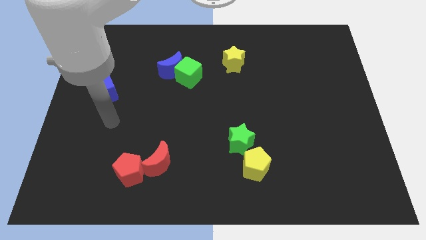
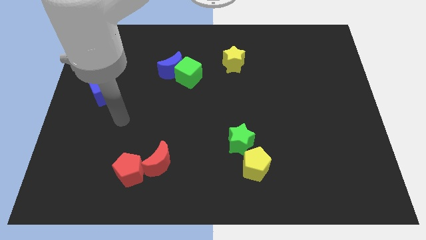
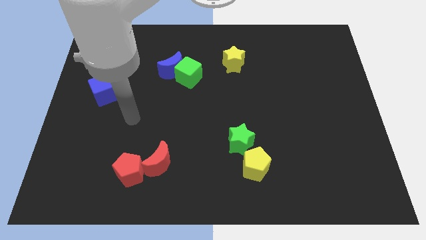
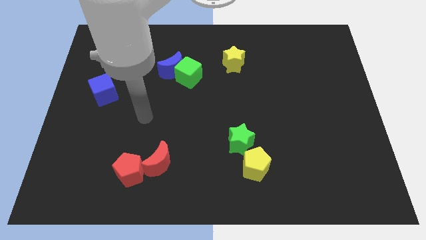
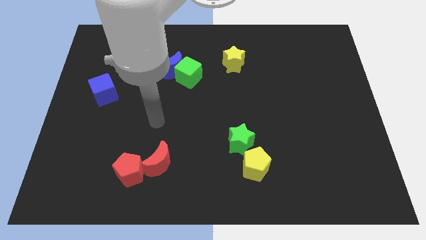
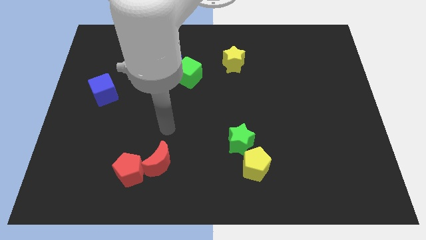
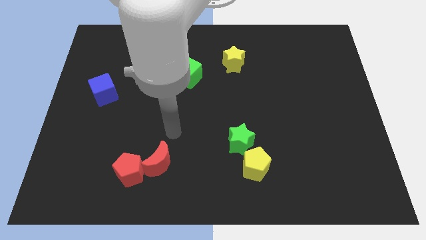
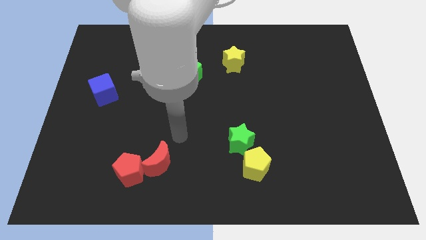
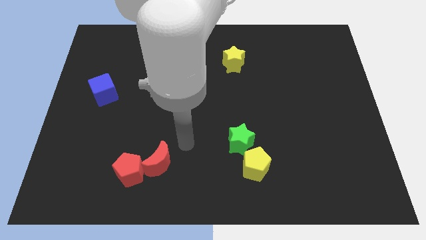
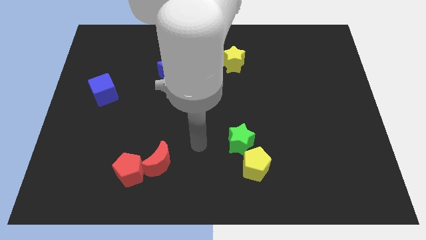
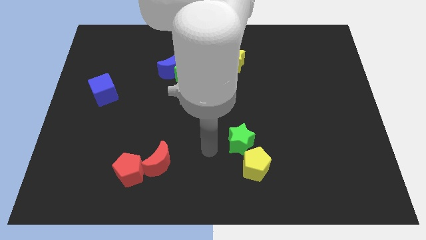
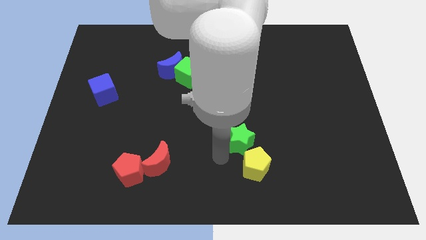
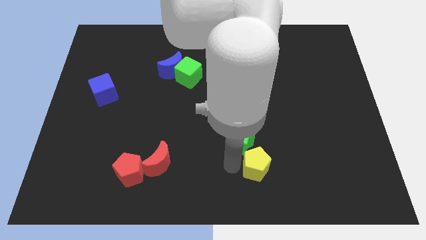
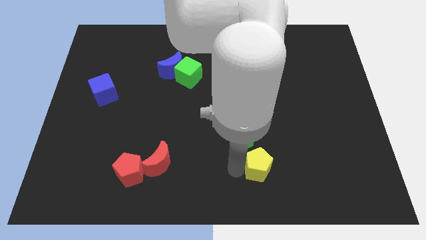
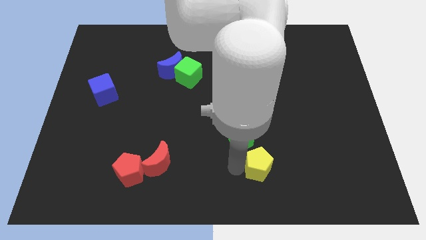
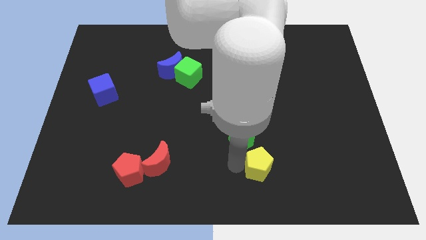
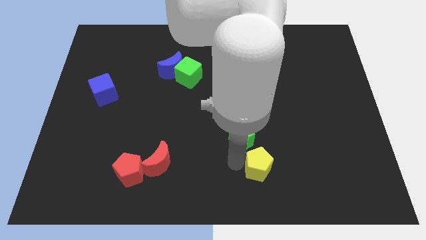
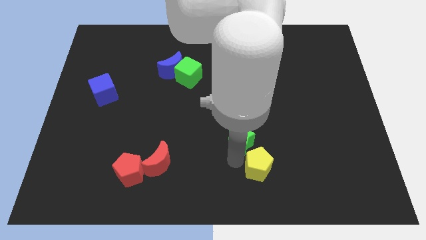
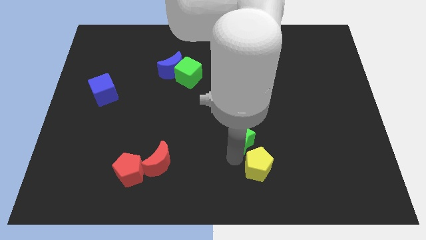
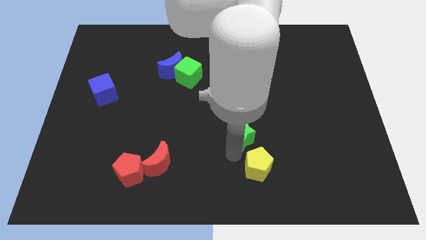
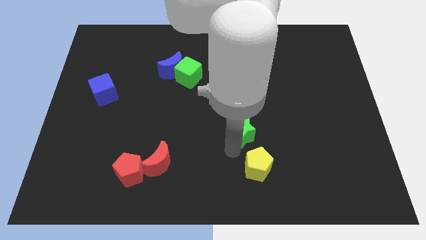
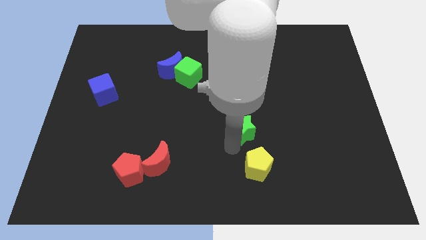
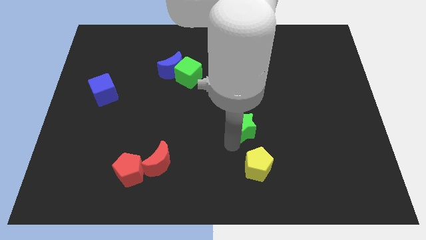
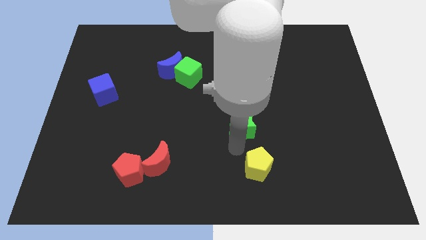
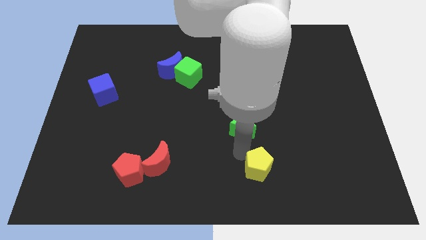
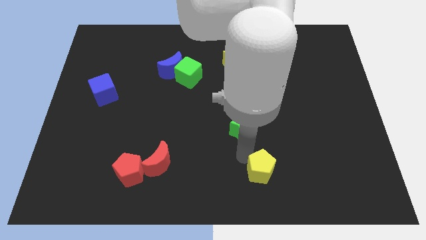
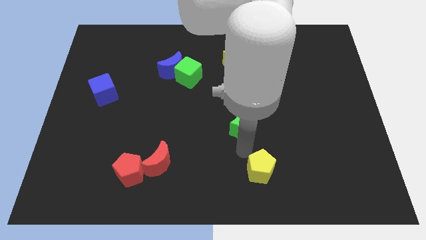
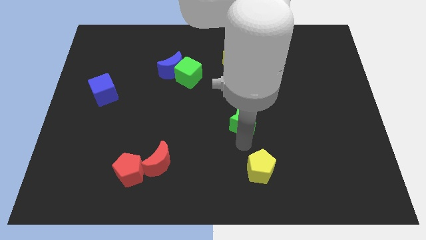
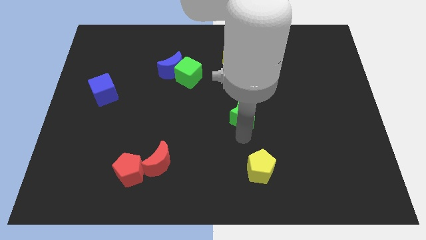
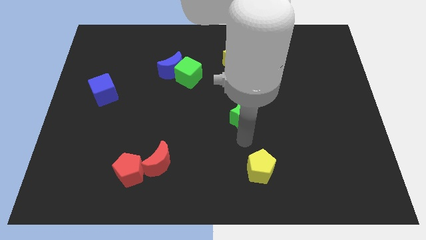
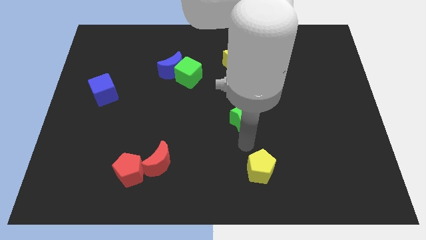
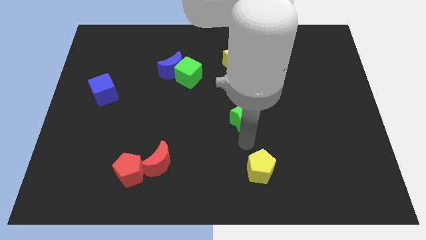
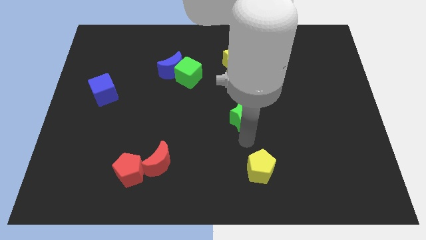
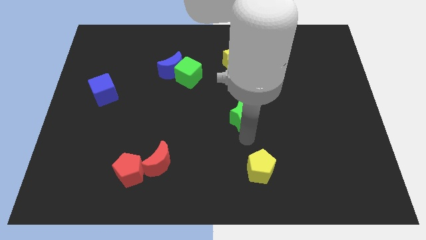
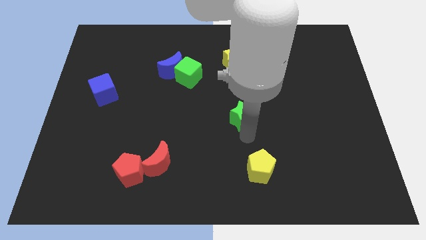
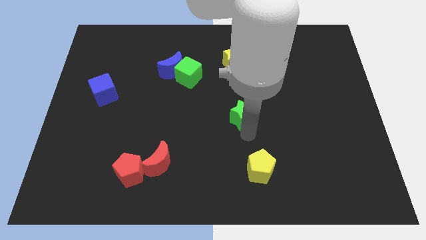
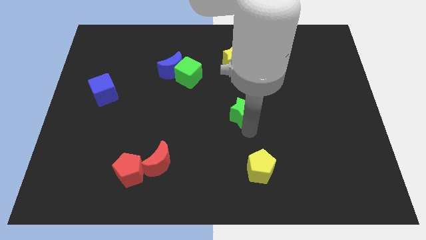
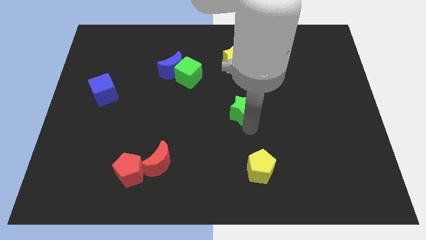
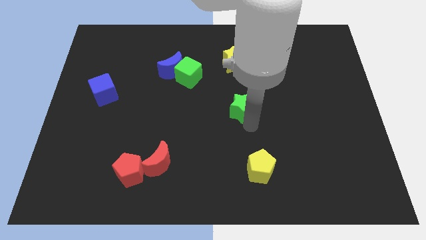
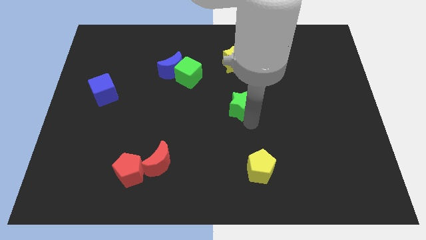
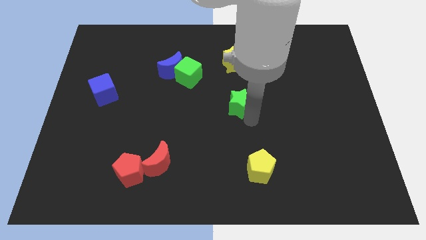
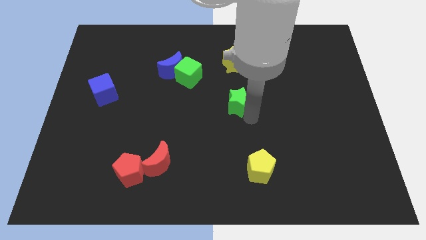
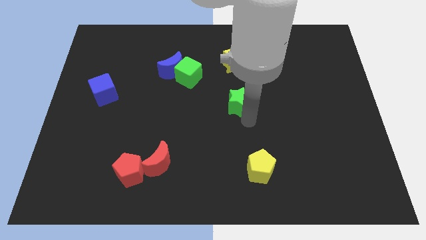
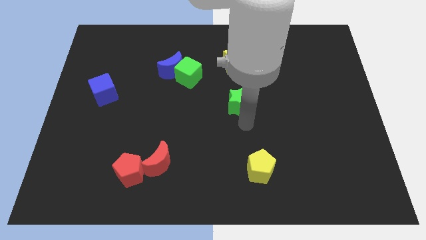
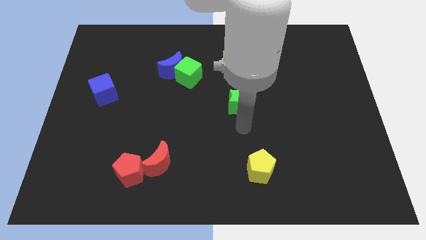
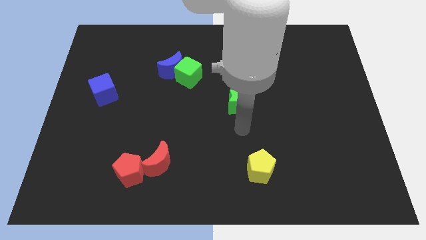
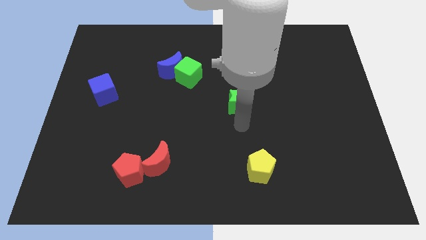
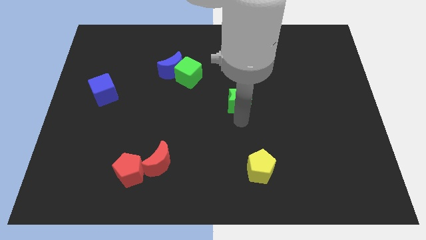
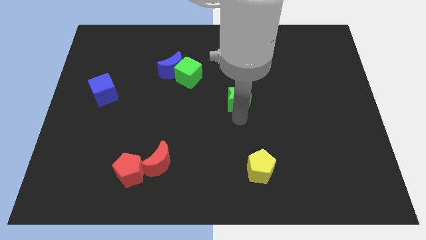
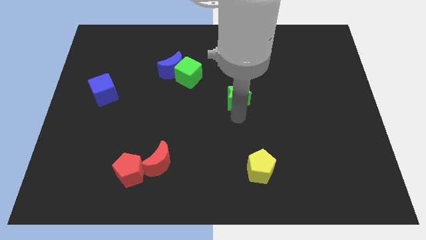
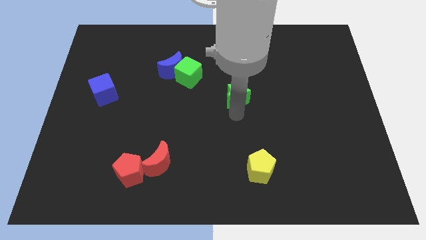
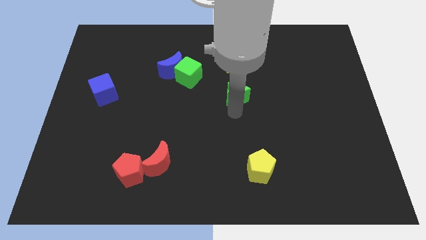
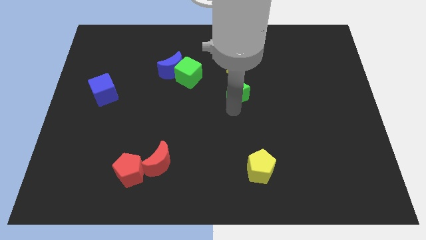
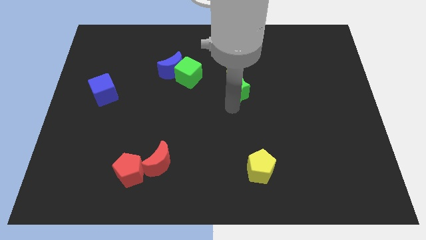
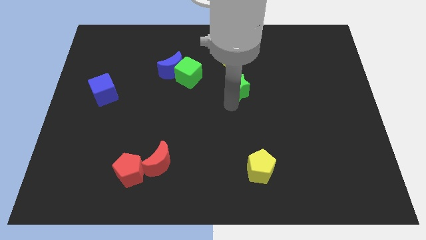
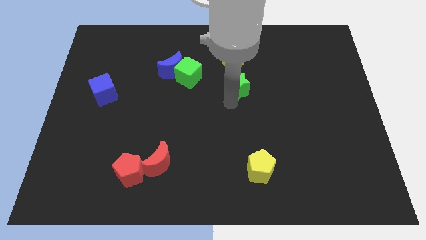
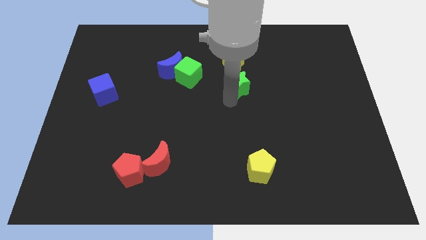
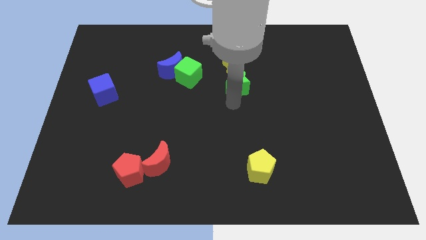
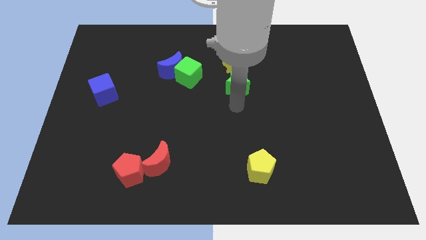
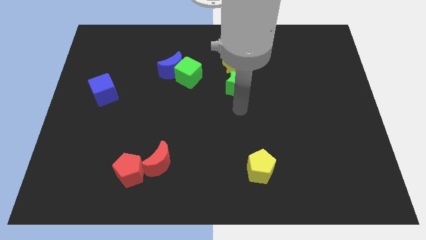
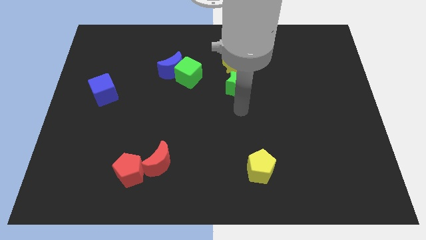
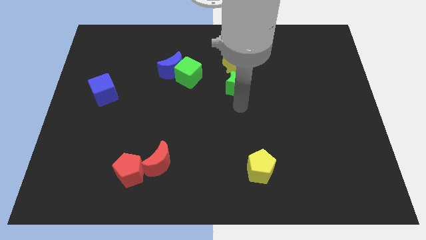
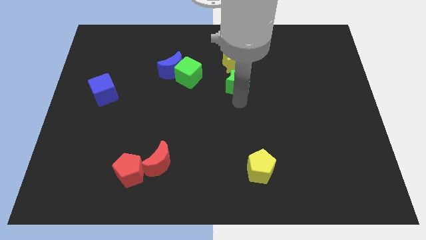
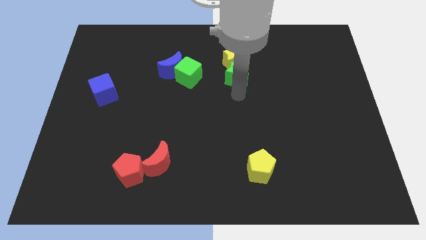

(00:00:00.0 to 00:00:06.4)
put the green star next to the yellow star

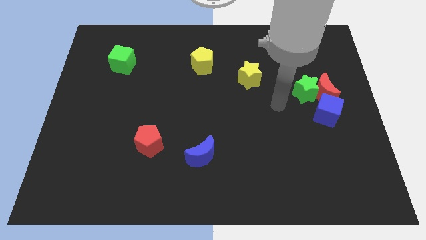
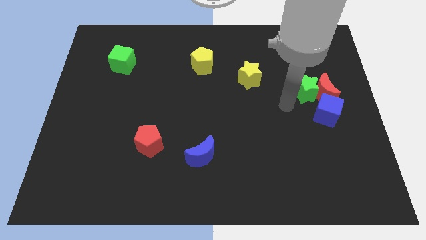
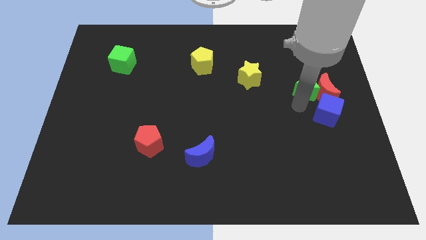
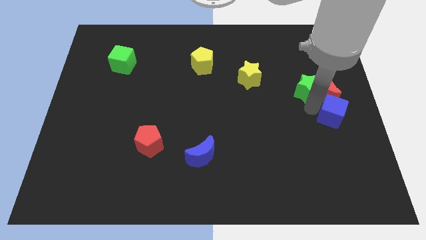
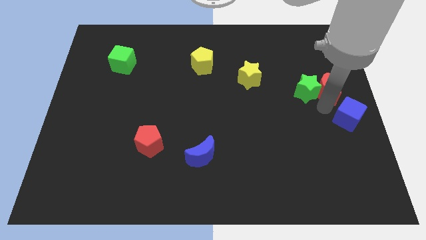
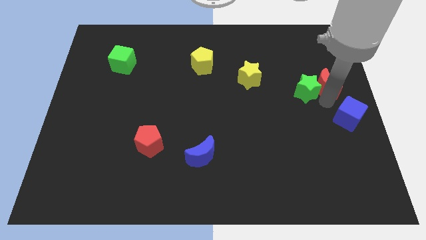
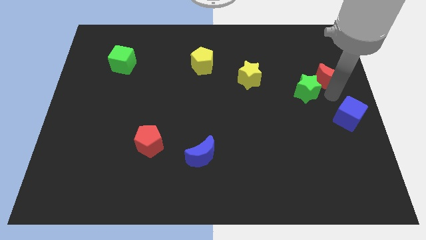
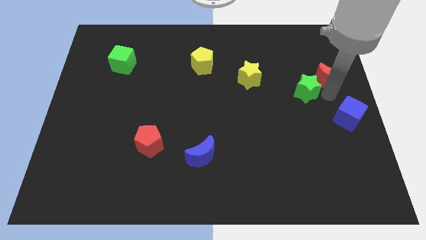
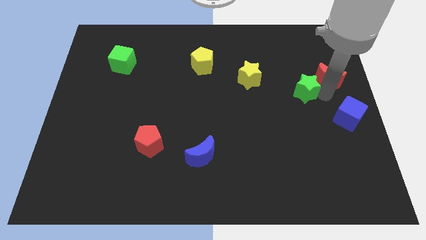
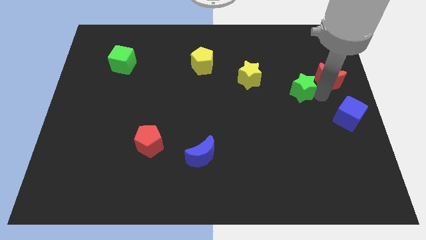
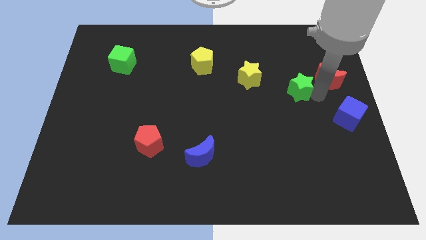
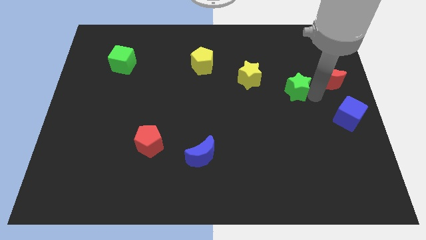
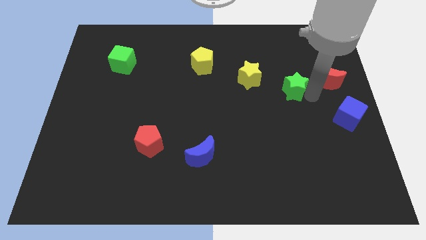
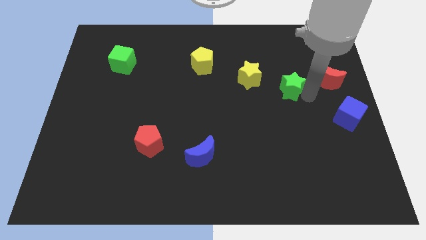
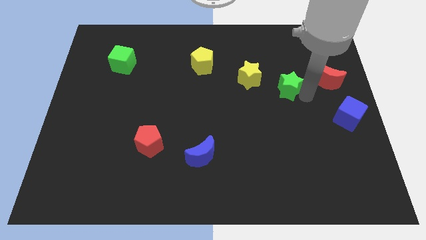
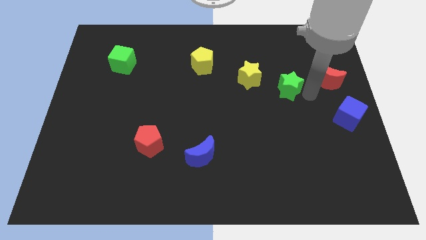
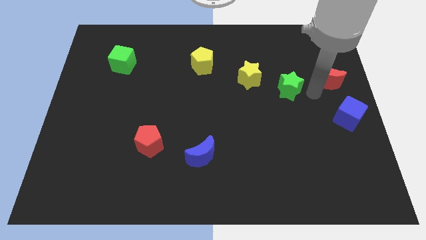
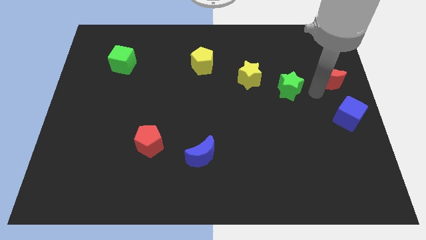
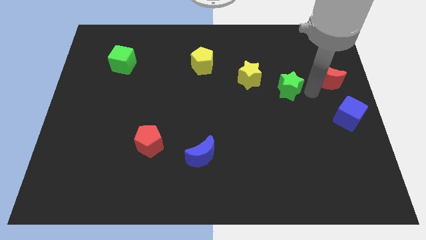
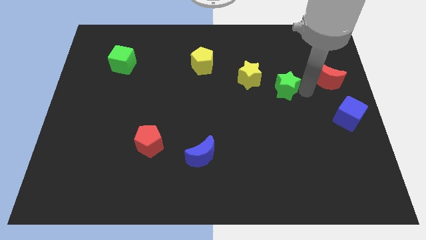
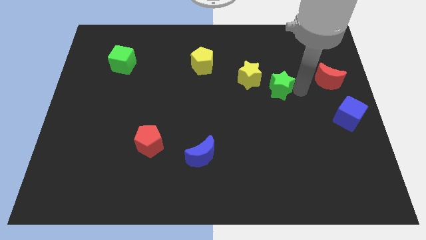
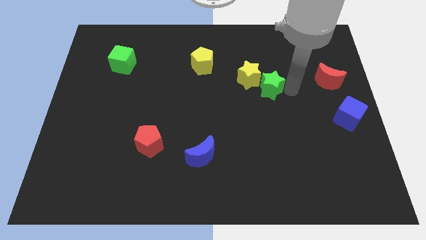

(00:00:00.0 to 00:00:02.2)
push the green star close to the yellow star
